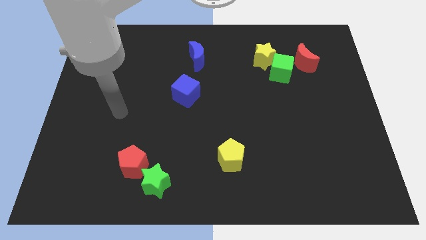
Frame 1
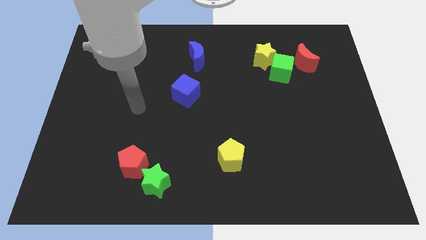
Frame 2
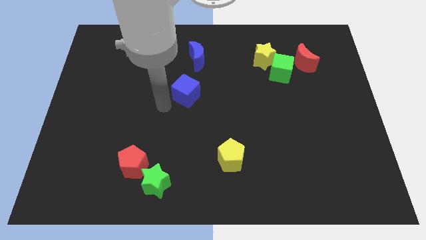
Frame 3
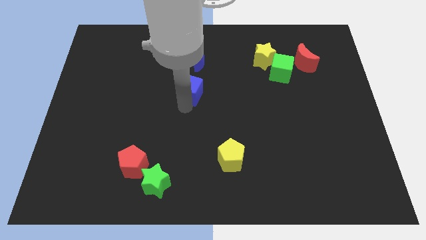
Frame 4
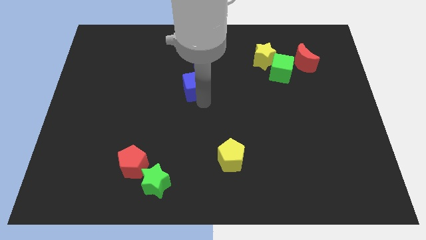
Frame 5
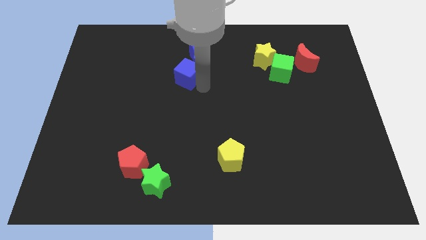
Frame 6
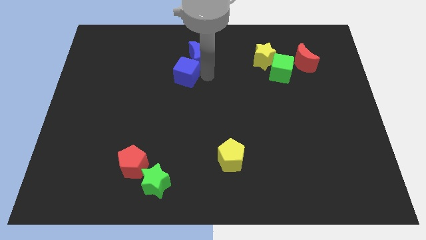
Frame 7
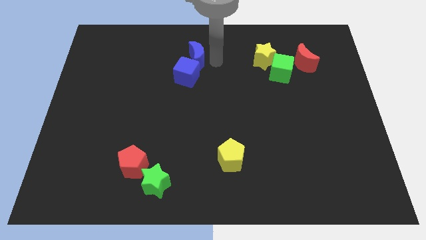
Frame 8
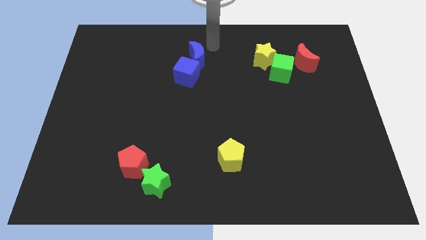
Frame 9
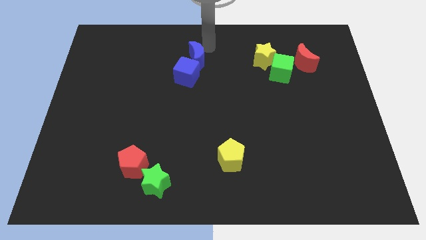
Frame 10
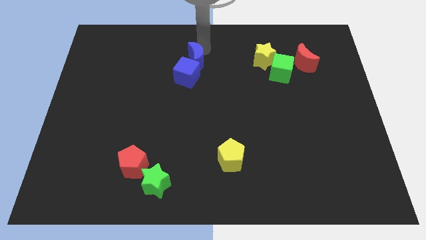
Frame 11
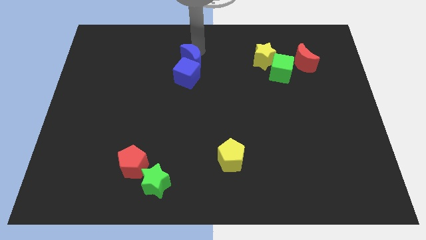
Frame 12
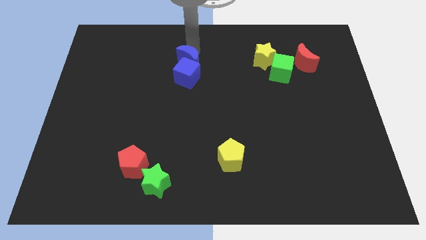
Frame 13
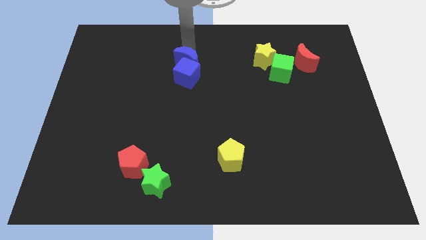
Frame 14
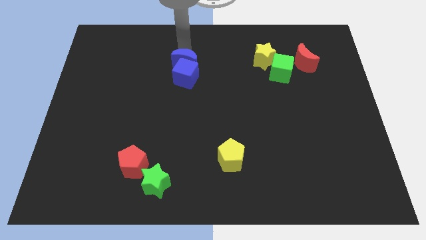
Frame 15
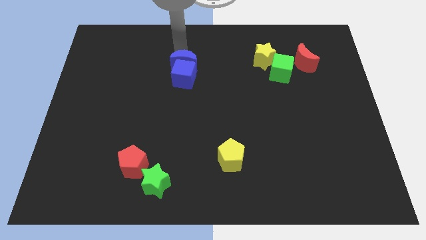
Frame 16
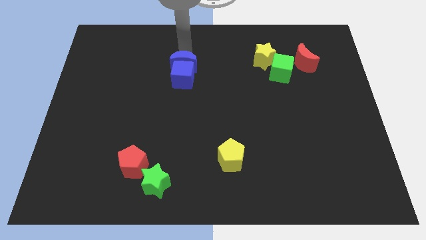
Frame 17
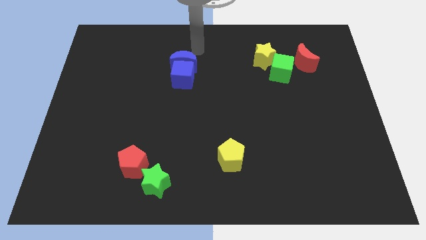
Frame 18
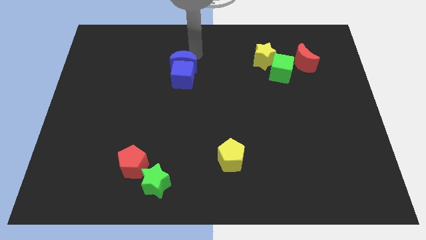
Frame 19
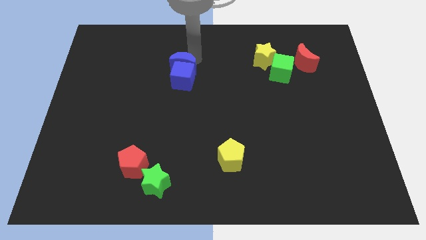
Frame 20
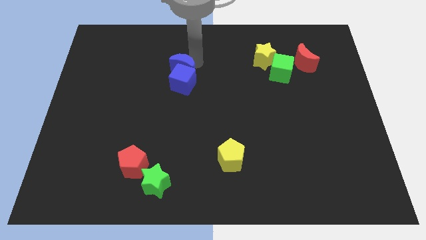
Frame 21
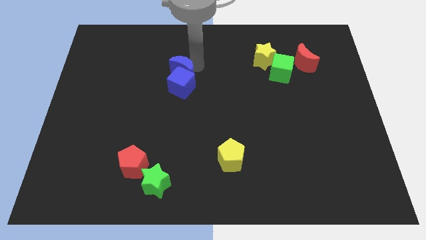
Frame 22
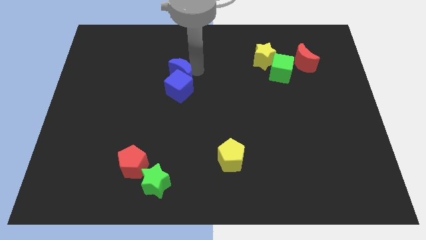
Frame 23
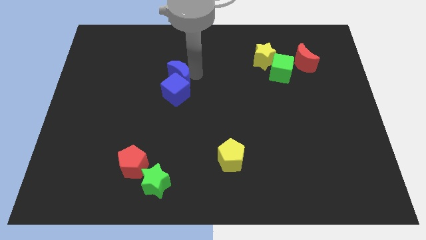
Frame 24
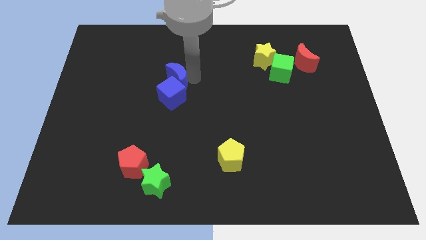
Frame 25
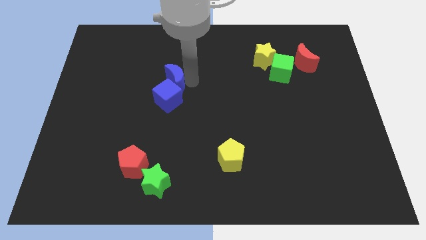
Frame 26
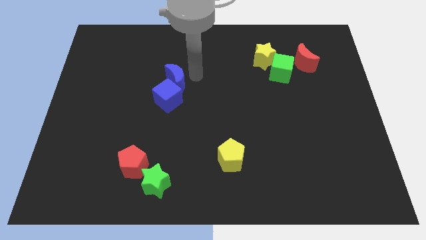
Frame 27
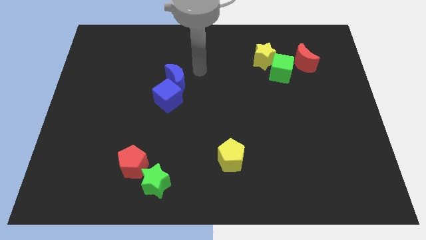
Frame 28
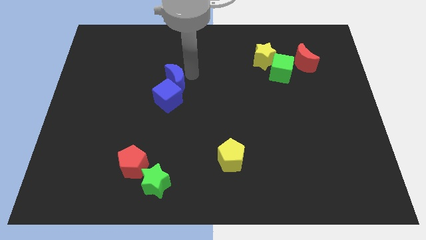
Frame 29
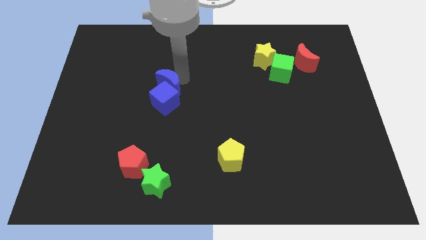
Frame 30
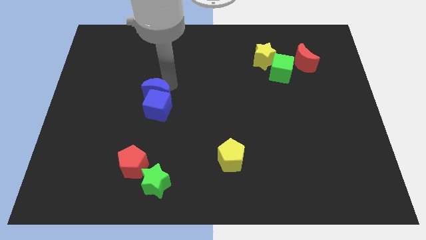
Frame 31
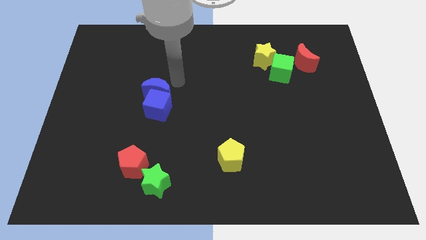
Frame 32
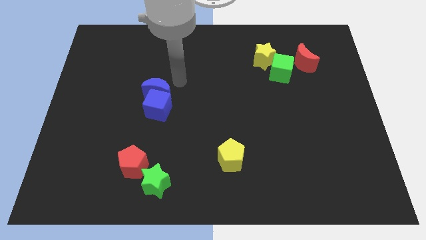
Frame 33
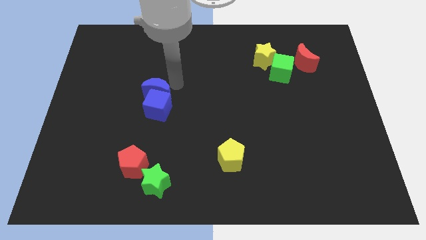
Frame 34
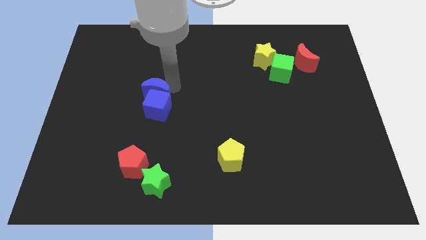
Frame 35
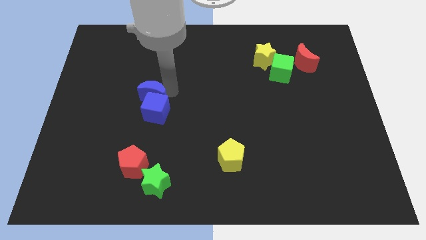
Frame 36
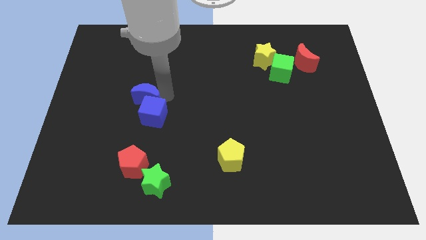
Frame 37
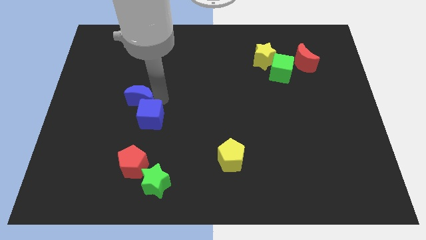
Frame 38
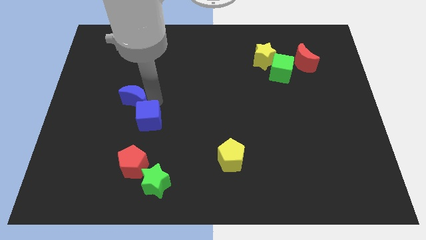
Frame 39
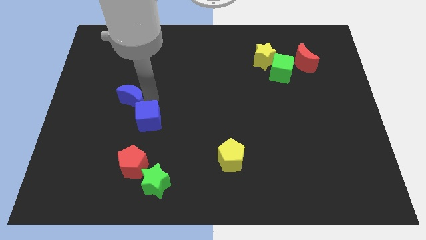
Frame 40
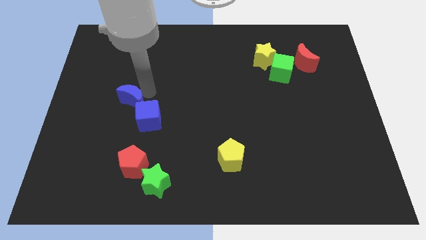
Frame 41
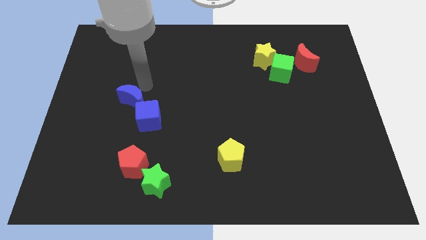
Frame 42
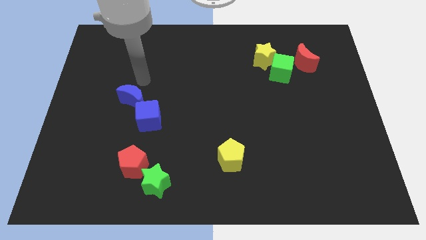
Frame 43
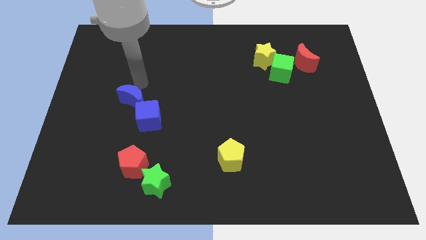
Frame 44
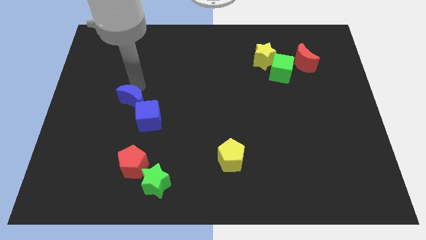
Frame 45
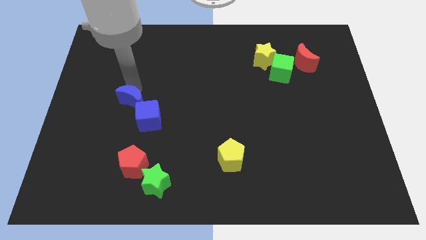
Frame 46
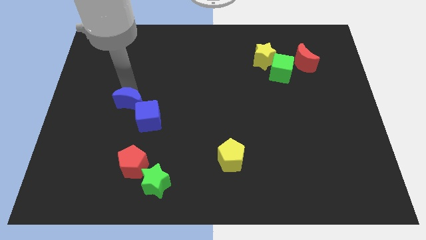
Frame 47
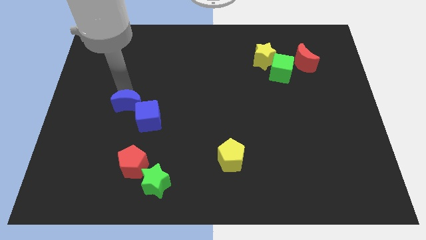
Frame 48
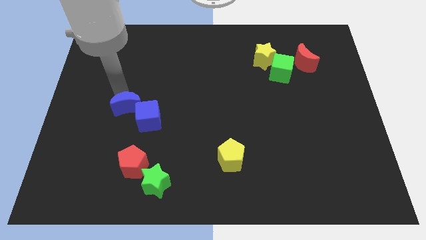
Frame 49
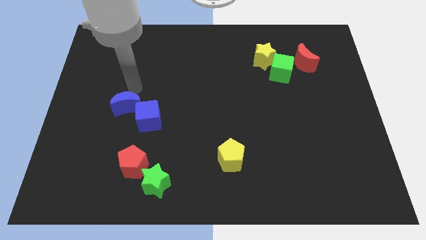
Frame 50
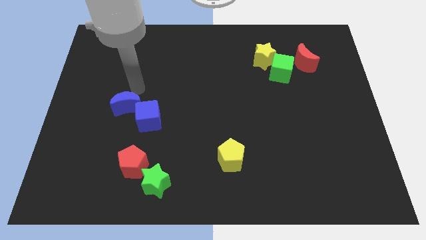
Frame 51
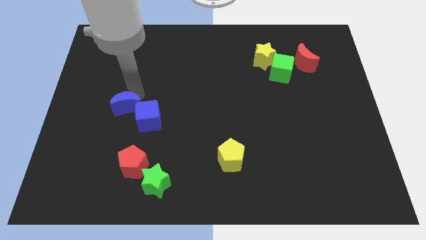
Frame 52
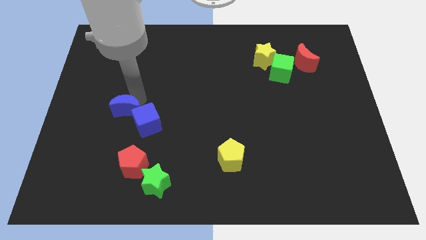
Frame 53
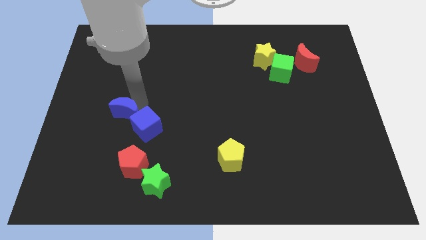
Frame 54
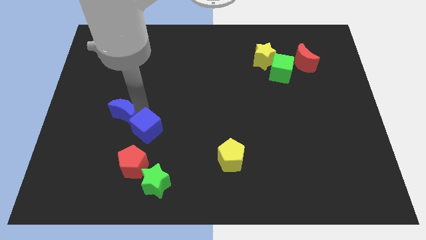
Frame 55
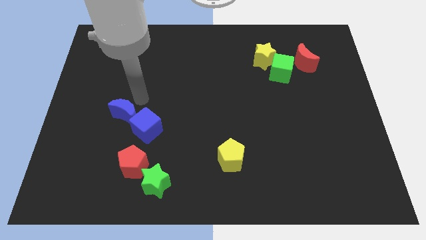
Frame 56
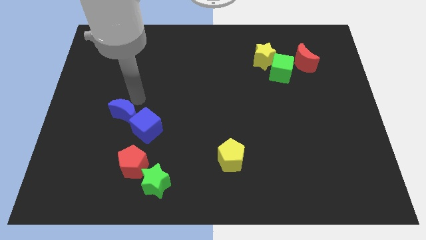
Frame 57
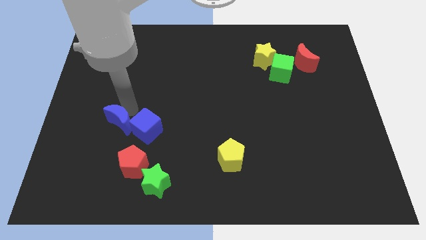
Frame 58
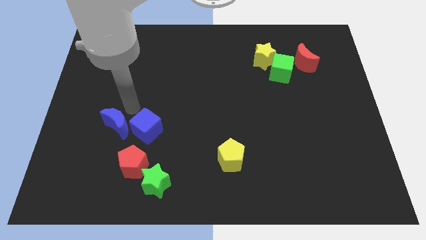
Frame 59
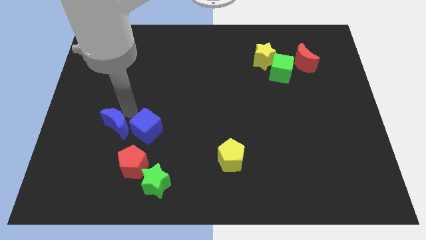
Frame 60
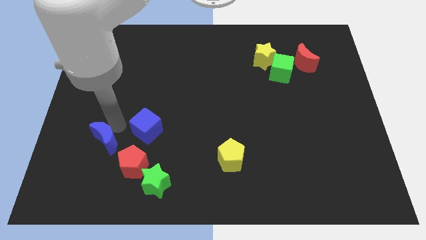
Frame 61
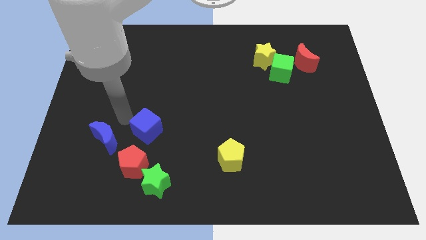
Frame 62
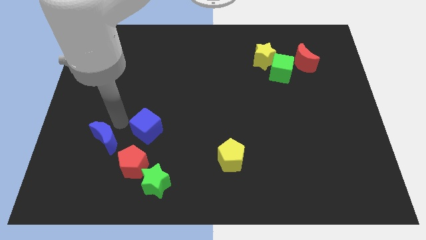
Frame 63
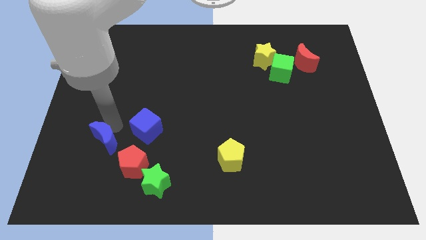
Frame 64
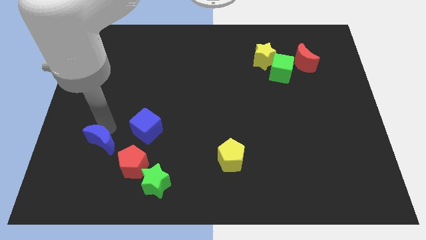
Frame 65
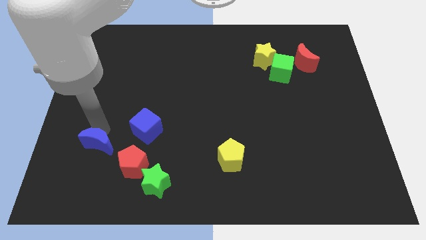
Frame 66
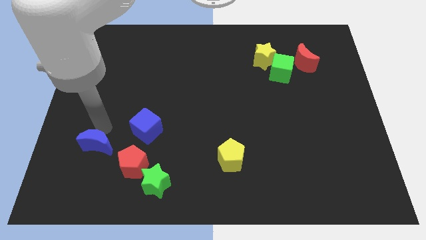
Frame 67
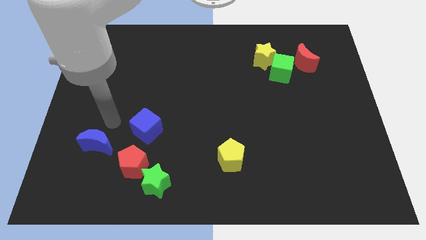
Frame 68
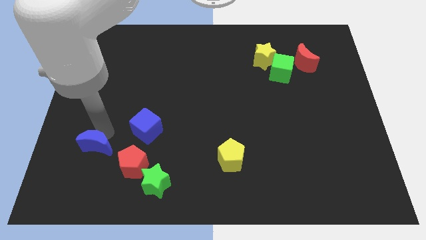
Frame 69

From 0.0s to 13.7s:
slide the blue moon to the left side of the red pentagon

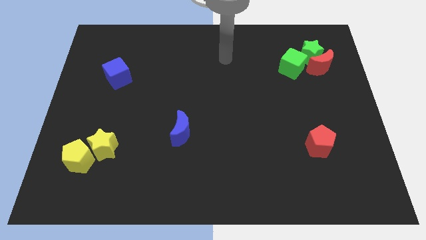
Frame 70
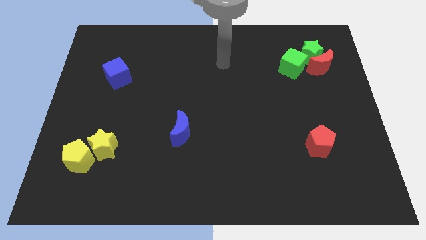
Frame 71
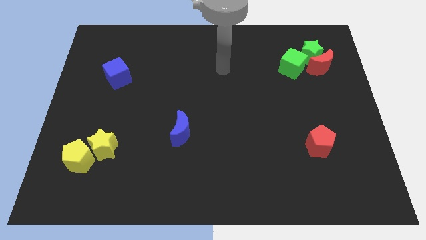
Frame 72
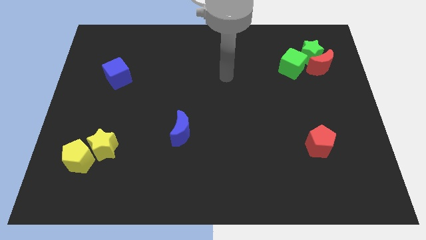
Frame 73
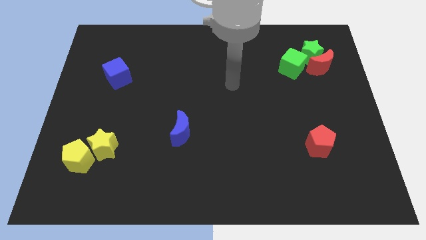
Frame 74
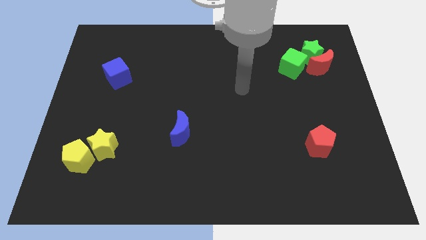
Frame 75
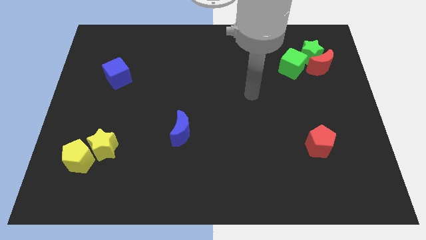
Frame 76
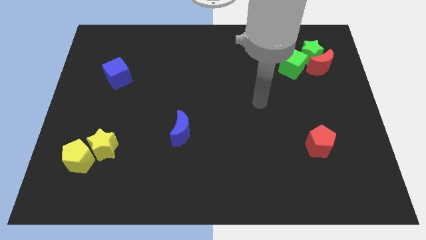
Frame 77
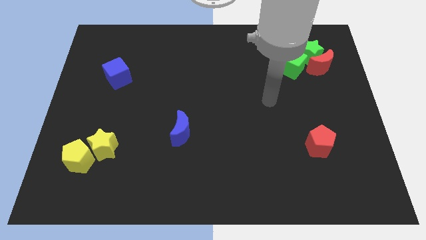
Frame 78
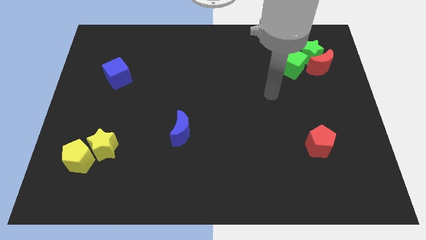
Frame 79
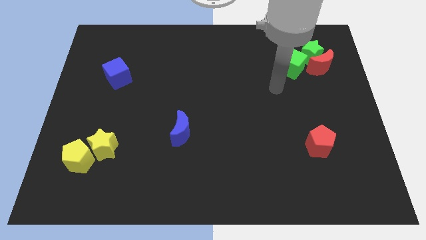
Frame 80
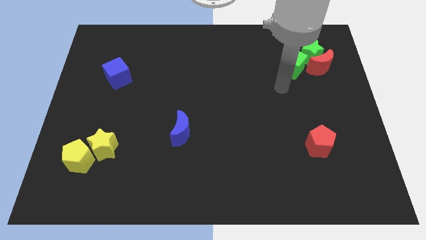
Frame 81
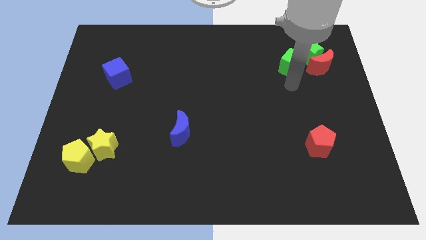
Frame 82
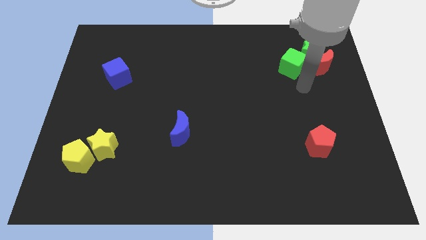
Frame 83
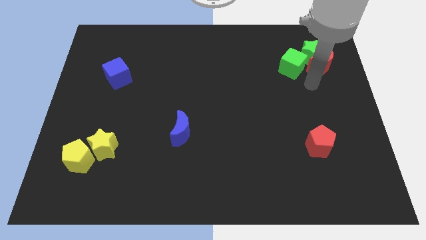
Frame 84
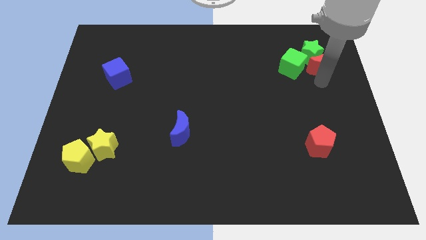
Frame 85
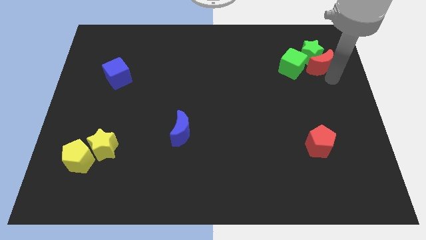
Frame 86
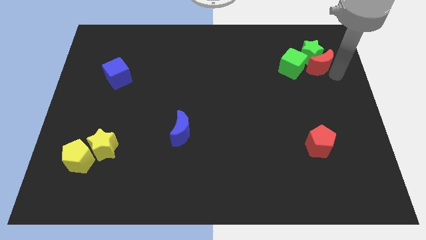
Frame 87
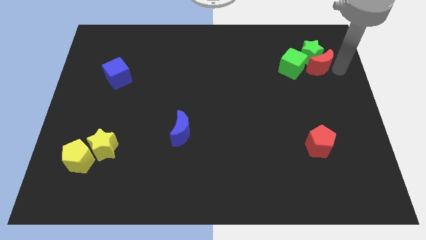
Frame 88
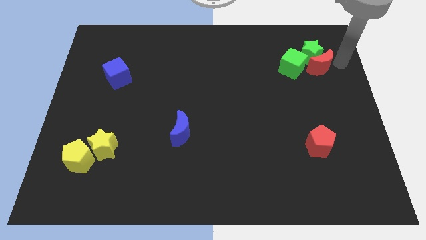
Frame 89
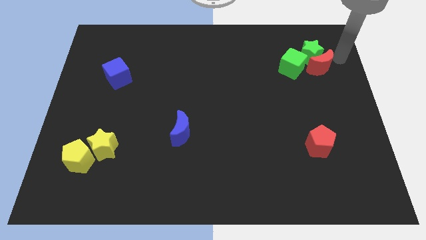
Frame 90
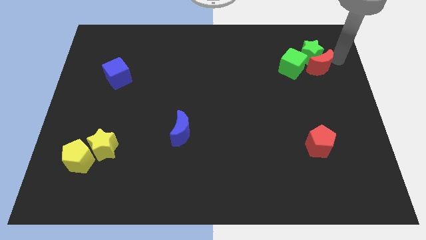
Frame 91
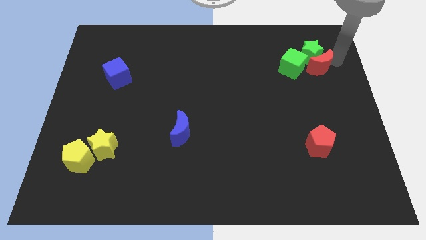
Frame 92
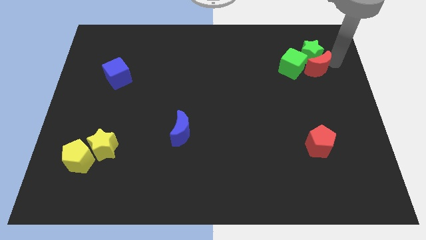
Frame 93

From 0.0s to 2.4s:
slide the red moon to the bottom left side of the green star
